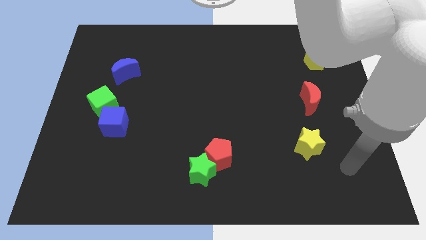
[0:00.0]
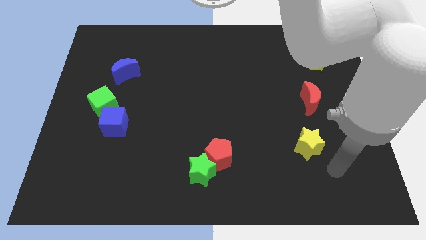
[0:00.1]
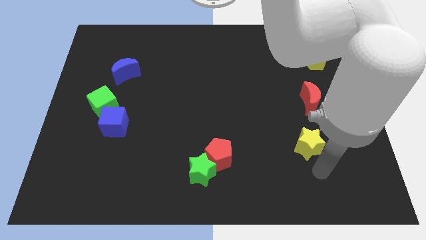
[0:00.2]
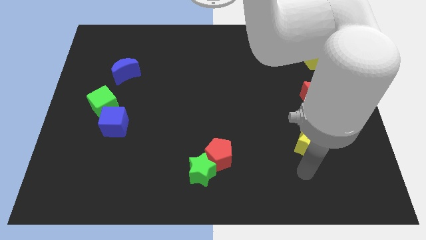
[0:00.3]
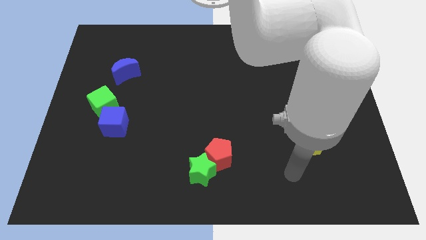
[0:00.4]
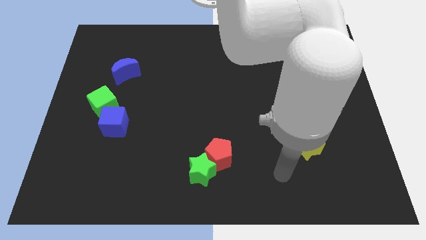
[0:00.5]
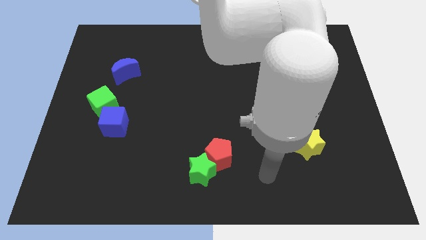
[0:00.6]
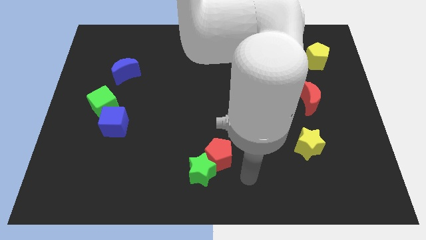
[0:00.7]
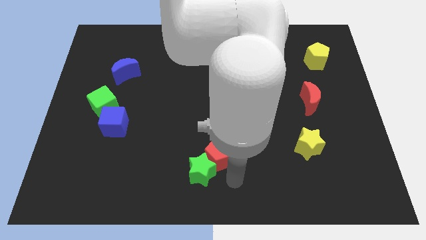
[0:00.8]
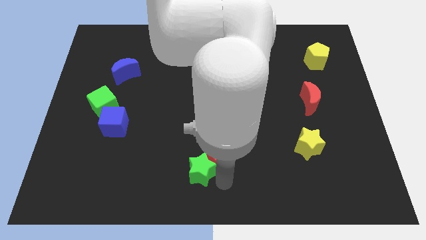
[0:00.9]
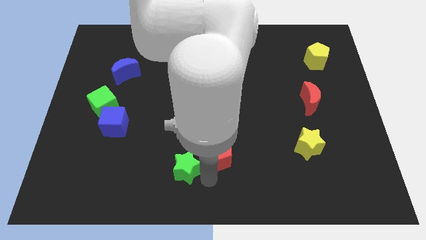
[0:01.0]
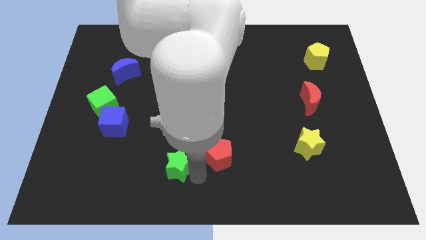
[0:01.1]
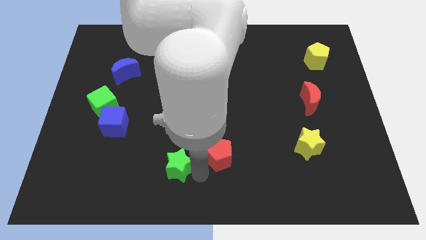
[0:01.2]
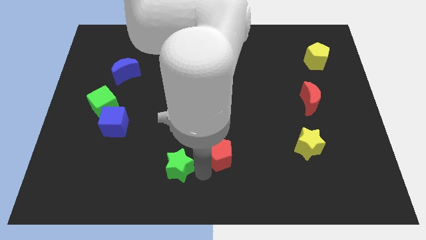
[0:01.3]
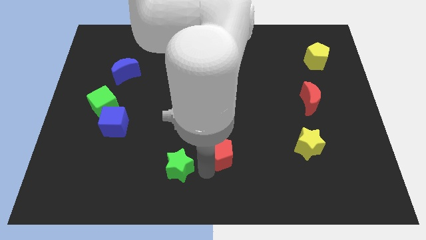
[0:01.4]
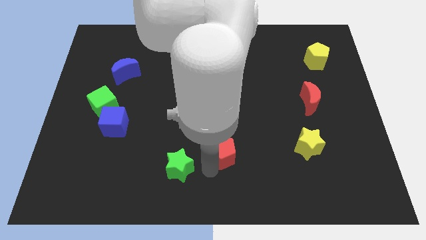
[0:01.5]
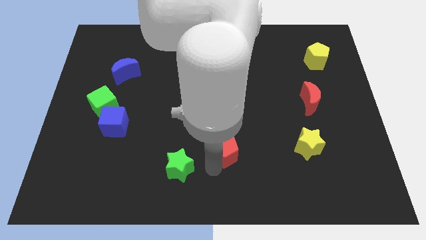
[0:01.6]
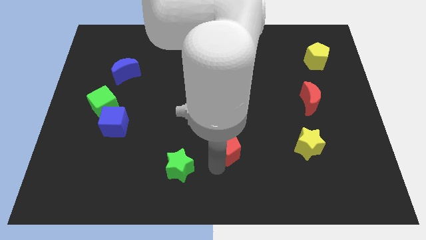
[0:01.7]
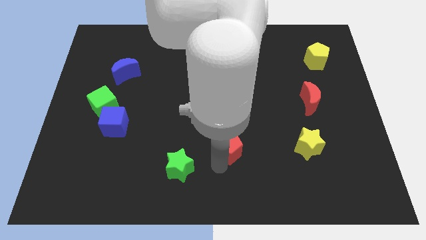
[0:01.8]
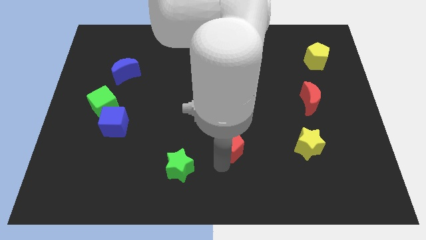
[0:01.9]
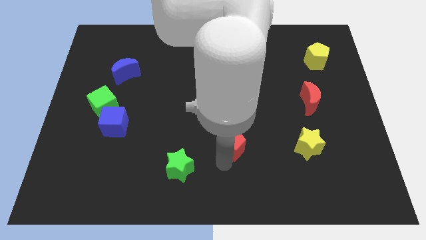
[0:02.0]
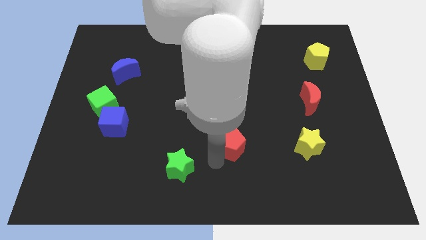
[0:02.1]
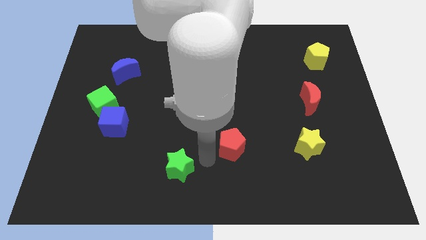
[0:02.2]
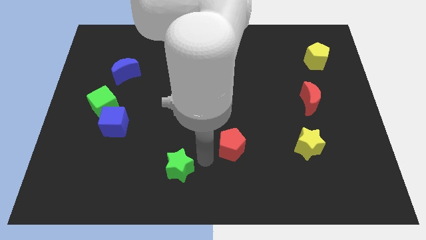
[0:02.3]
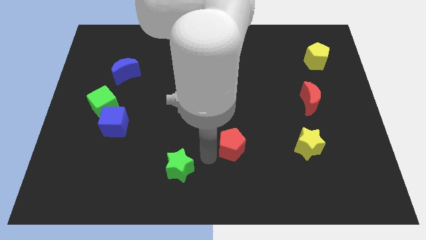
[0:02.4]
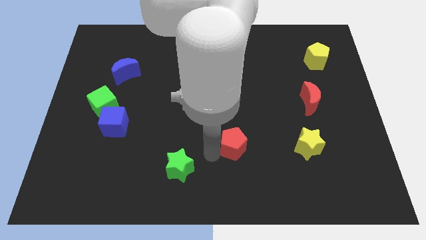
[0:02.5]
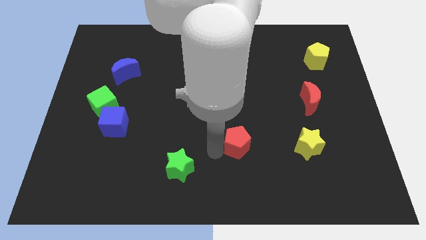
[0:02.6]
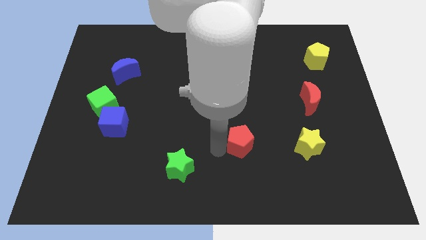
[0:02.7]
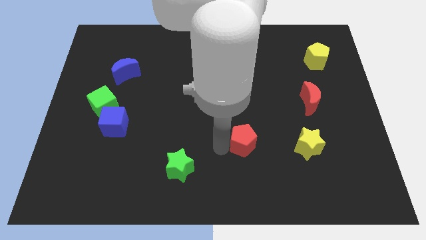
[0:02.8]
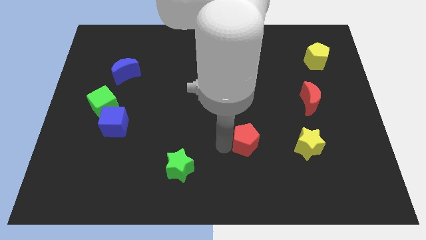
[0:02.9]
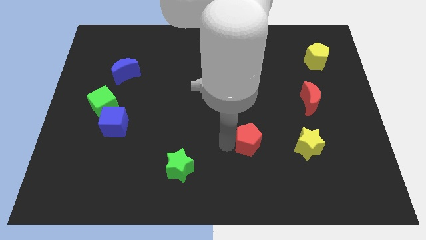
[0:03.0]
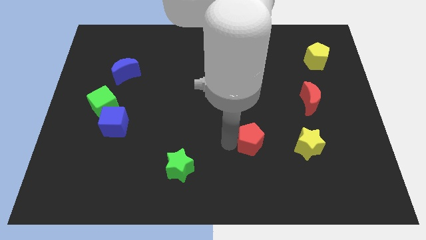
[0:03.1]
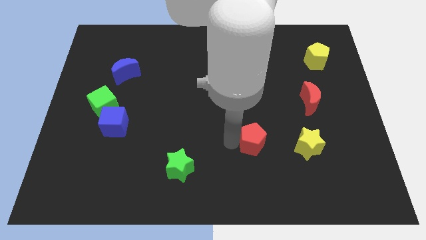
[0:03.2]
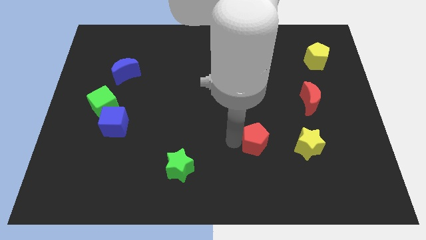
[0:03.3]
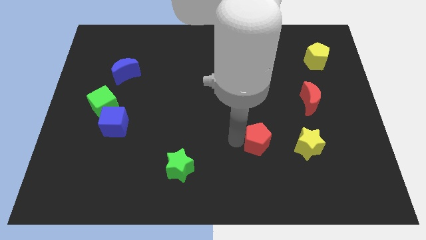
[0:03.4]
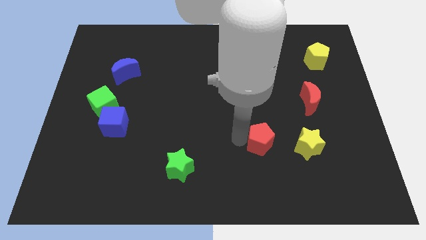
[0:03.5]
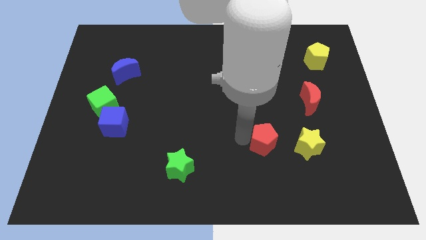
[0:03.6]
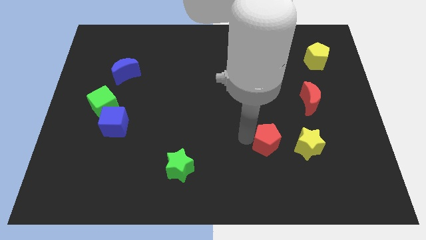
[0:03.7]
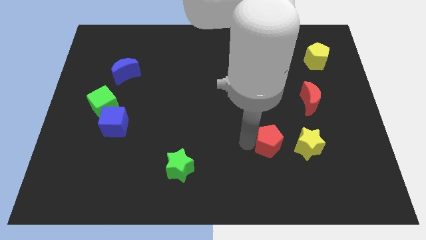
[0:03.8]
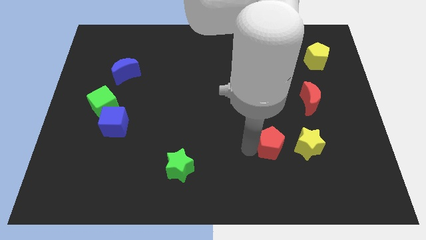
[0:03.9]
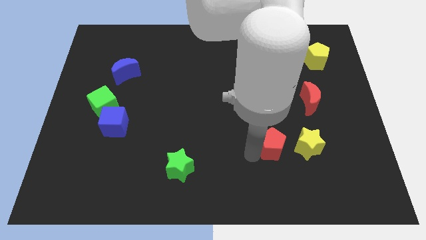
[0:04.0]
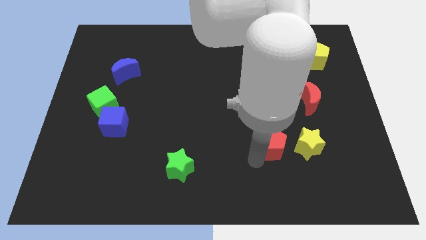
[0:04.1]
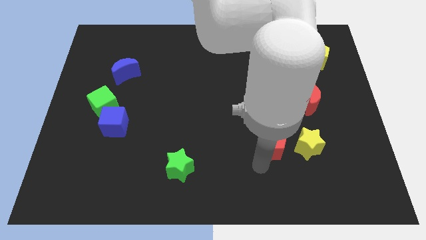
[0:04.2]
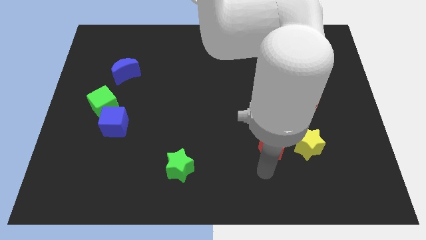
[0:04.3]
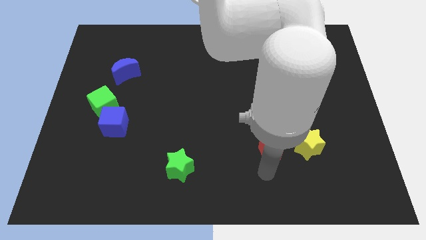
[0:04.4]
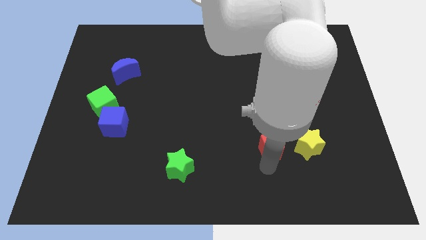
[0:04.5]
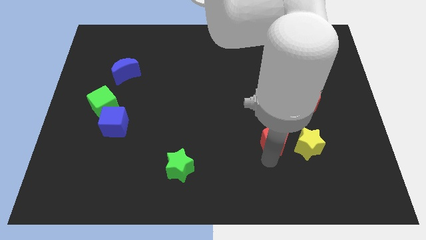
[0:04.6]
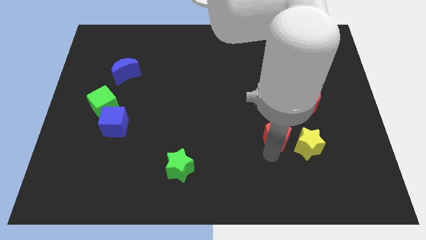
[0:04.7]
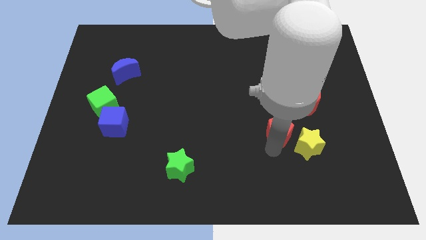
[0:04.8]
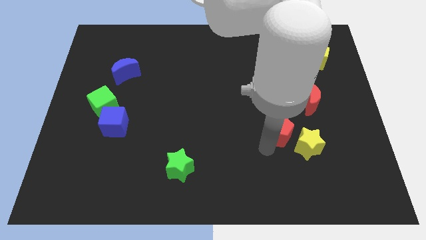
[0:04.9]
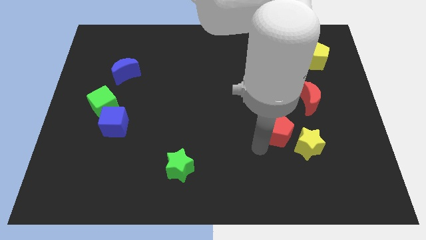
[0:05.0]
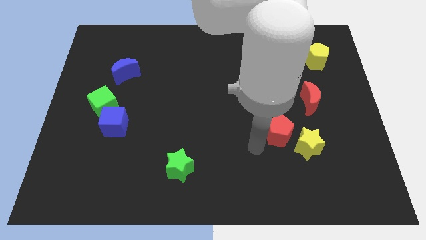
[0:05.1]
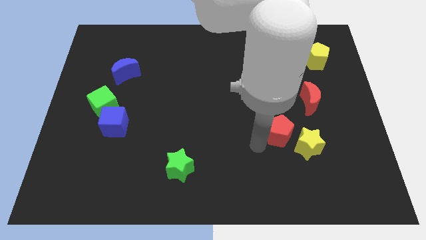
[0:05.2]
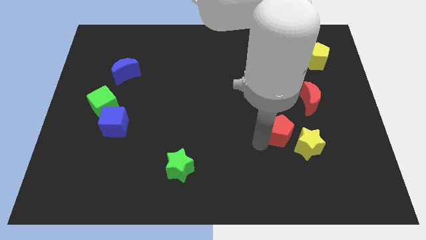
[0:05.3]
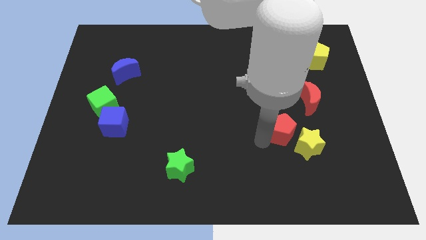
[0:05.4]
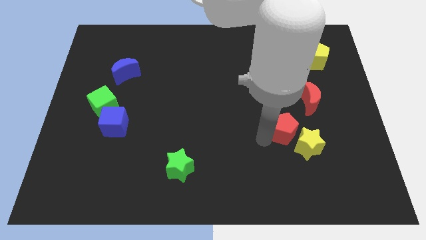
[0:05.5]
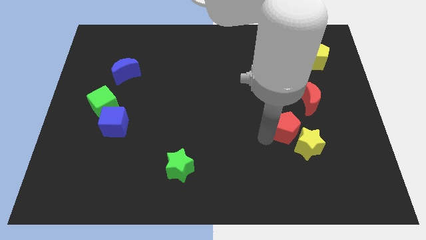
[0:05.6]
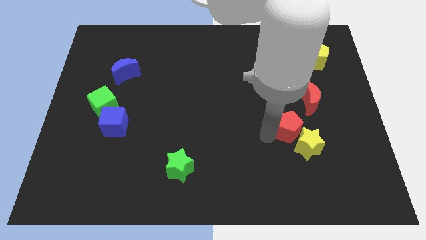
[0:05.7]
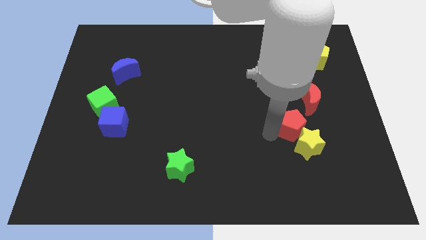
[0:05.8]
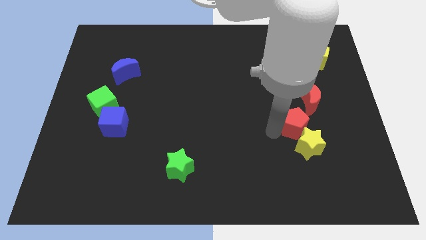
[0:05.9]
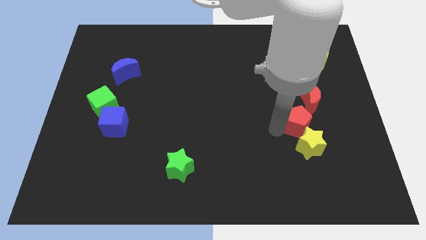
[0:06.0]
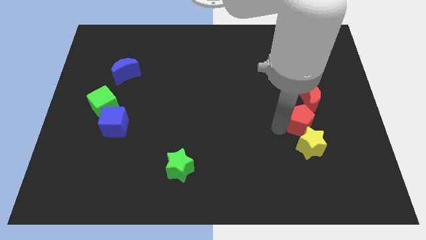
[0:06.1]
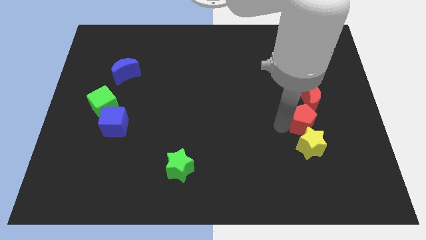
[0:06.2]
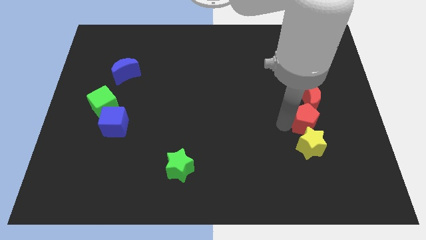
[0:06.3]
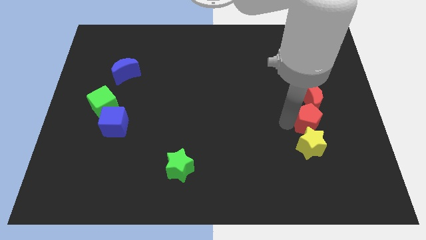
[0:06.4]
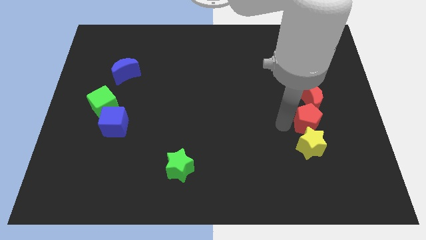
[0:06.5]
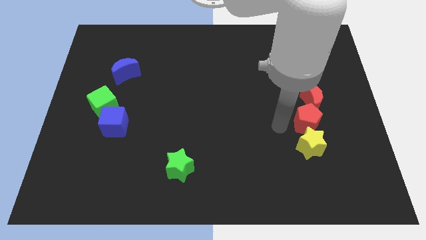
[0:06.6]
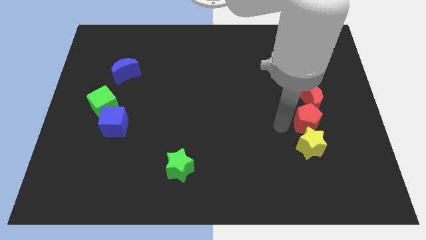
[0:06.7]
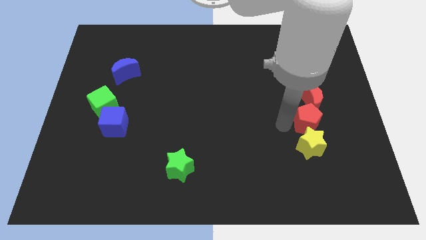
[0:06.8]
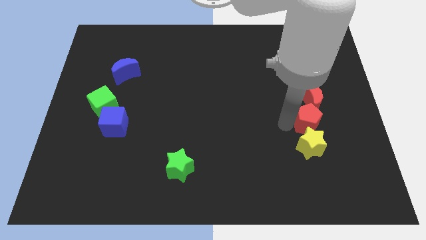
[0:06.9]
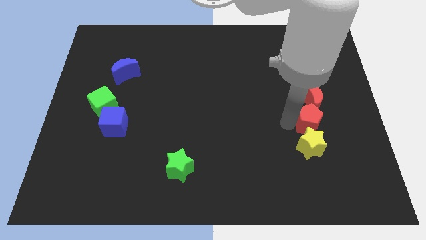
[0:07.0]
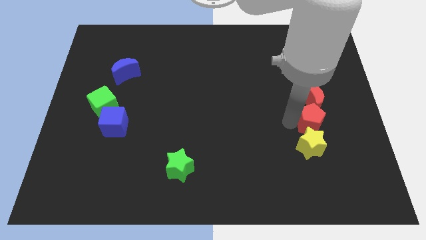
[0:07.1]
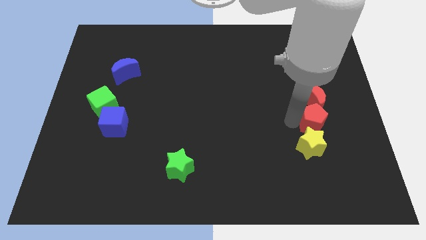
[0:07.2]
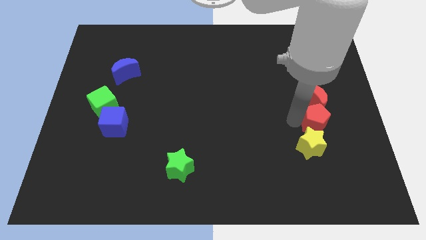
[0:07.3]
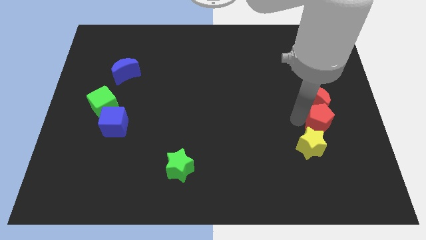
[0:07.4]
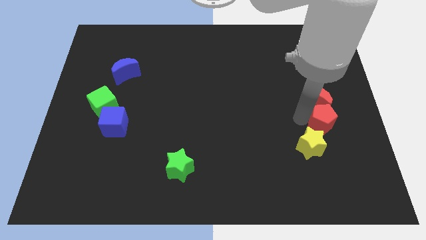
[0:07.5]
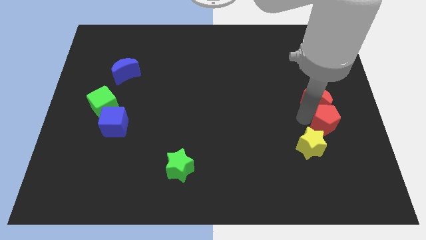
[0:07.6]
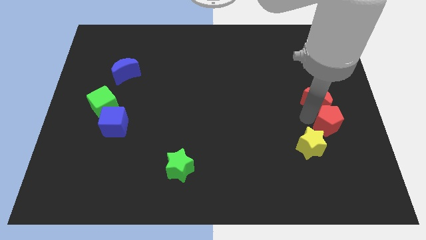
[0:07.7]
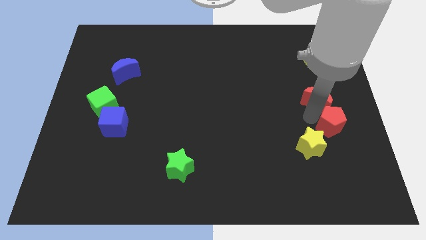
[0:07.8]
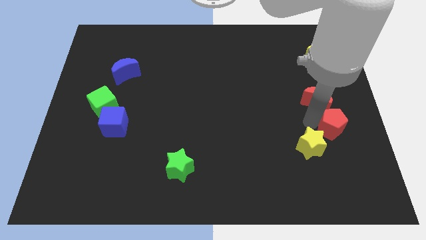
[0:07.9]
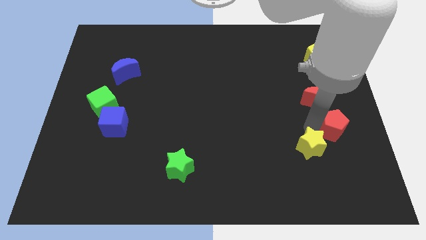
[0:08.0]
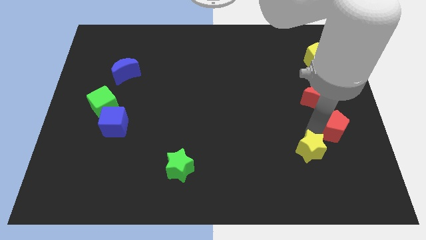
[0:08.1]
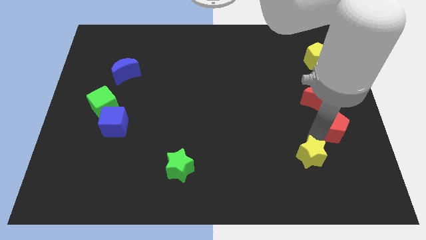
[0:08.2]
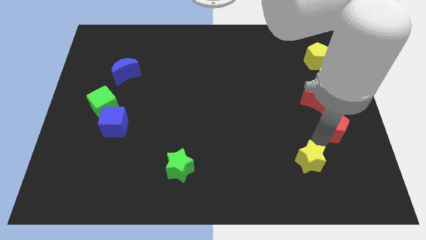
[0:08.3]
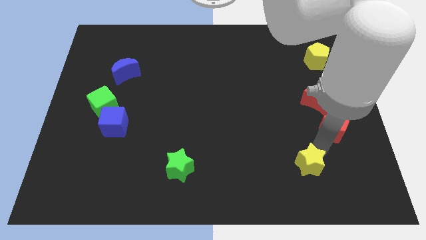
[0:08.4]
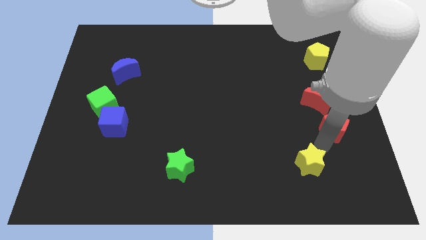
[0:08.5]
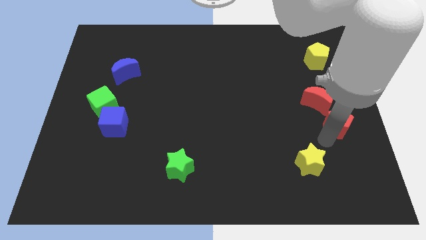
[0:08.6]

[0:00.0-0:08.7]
put the red pentagon to the center right
